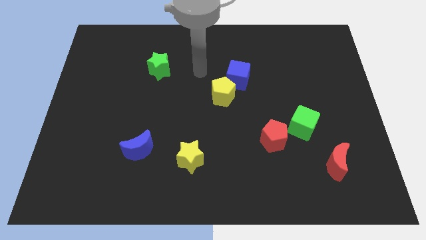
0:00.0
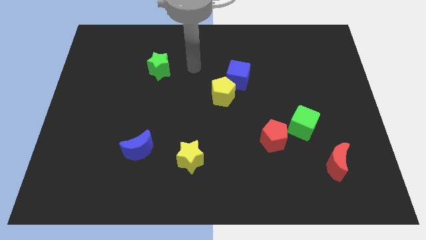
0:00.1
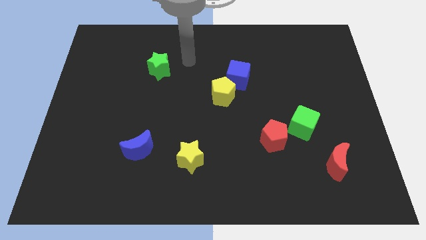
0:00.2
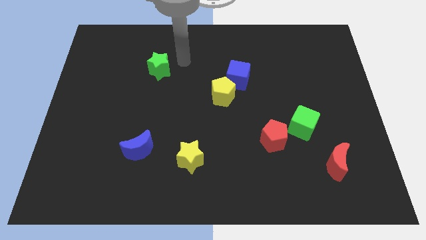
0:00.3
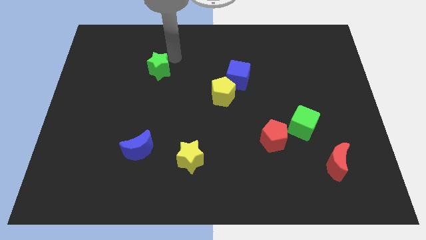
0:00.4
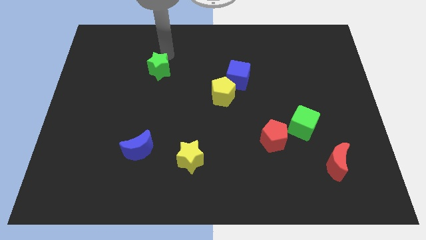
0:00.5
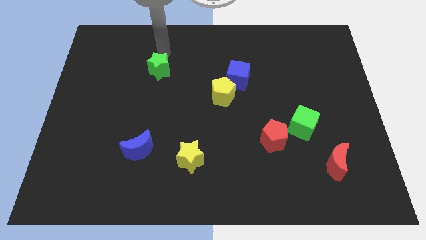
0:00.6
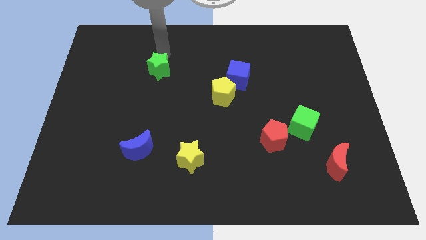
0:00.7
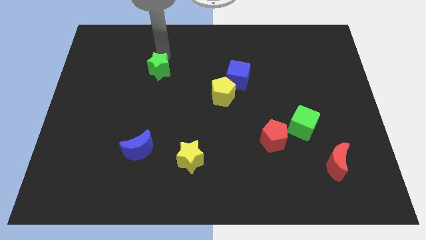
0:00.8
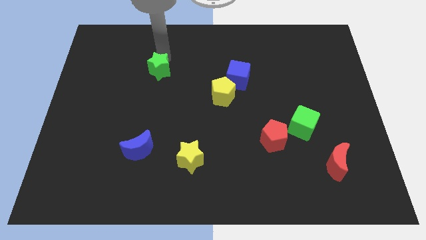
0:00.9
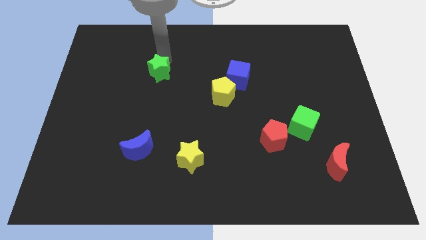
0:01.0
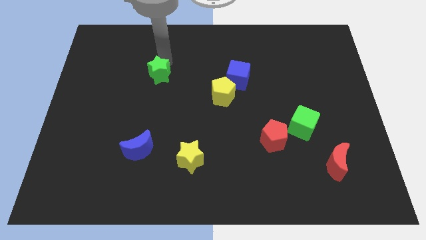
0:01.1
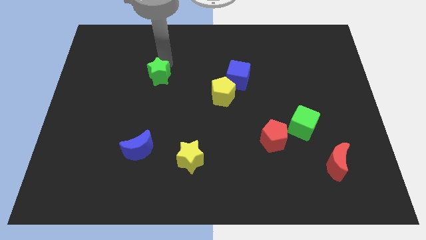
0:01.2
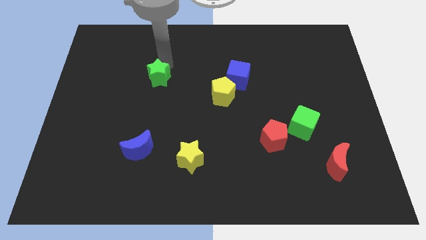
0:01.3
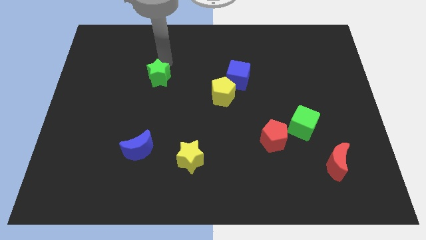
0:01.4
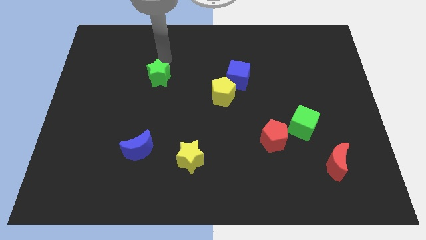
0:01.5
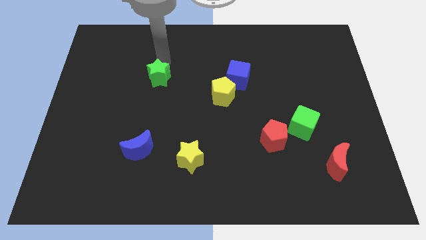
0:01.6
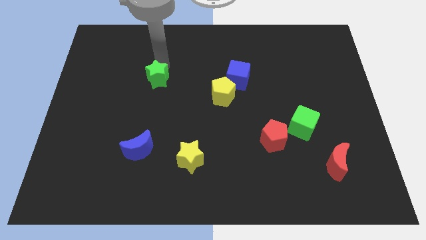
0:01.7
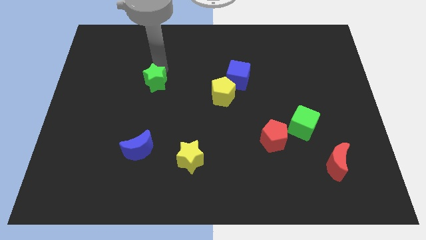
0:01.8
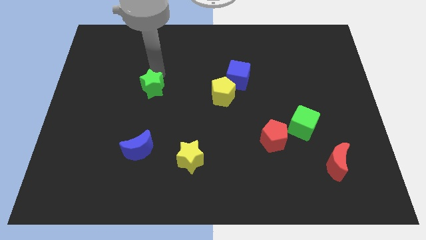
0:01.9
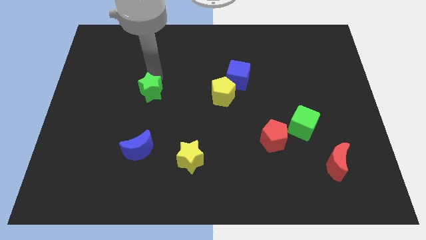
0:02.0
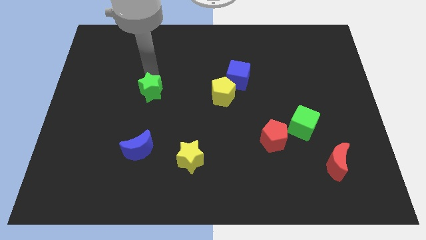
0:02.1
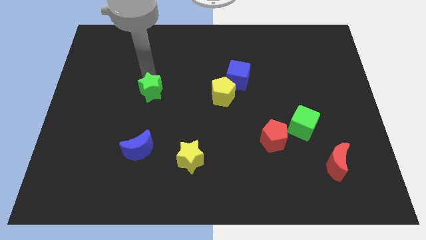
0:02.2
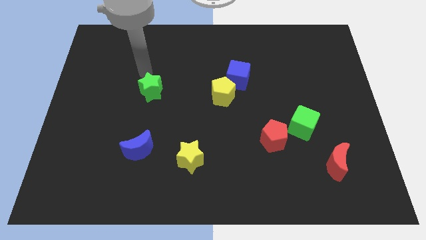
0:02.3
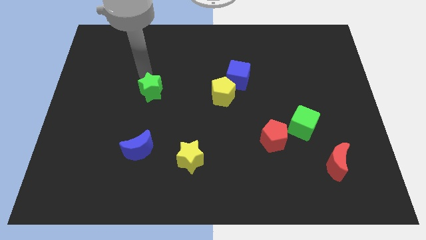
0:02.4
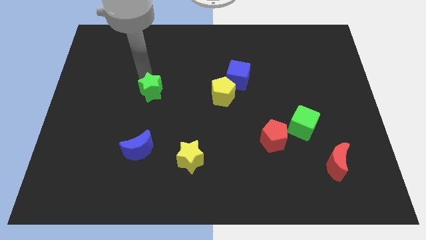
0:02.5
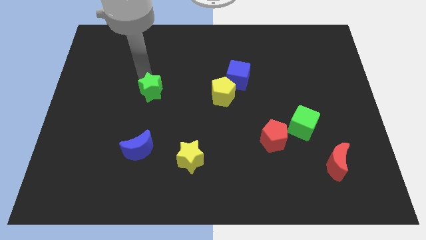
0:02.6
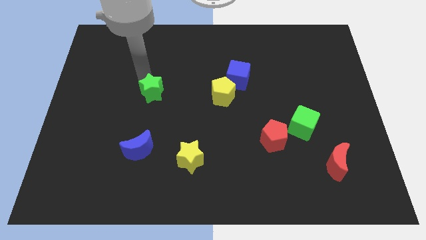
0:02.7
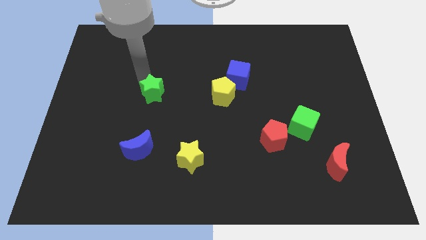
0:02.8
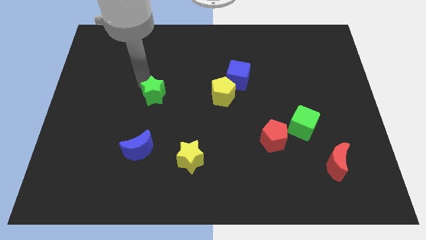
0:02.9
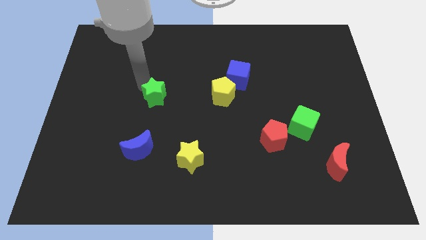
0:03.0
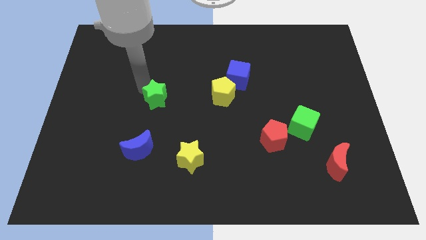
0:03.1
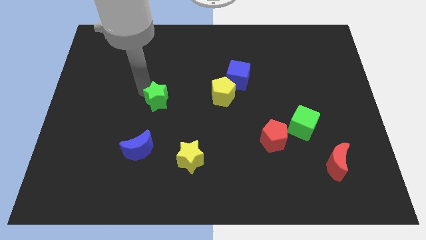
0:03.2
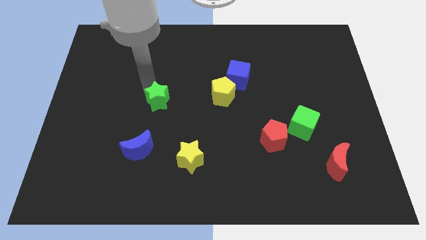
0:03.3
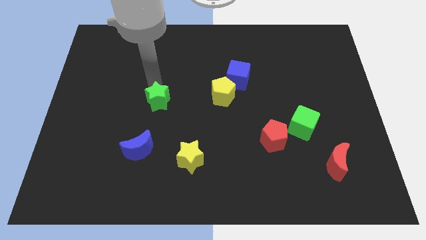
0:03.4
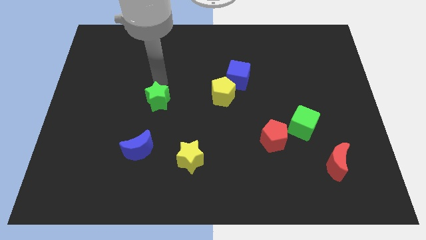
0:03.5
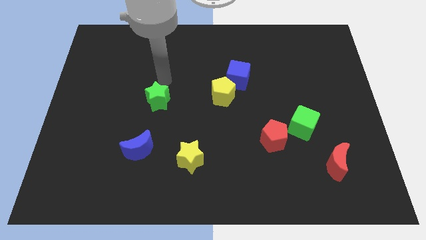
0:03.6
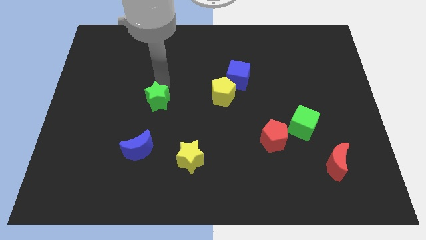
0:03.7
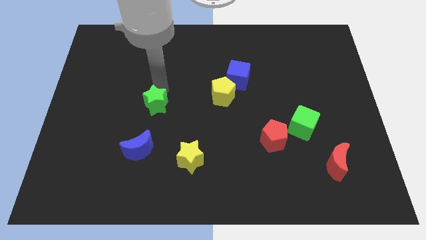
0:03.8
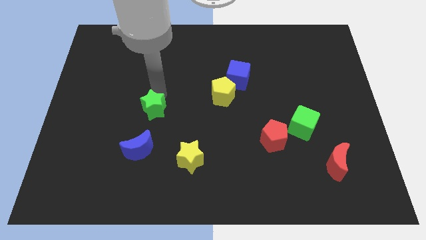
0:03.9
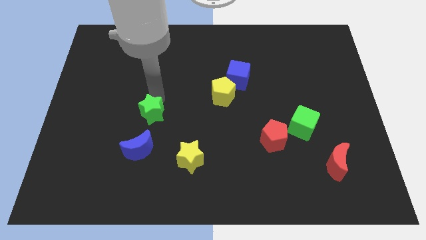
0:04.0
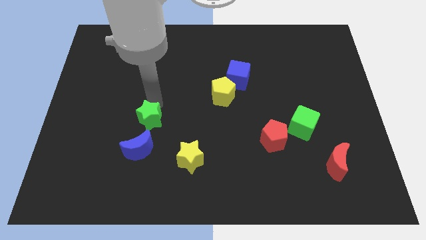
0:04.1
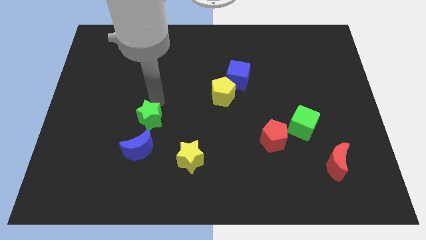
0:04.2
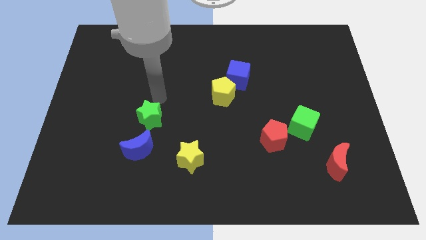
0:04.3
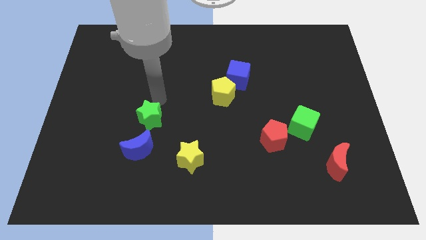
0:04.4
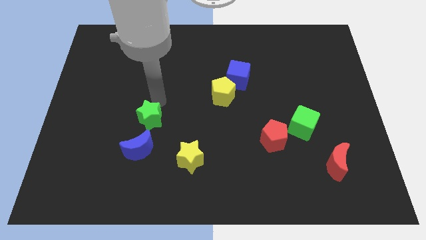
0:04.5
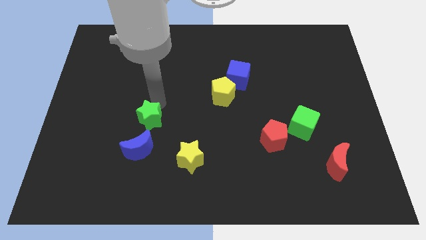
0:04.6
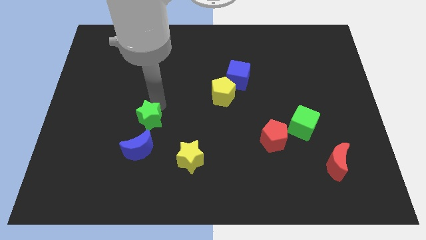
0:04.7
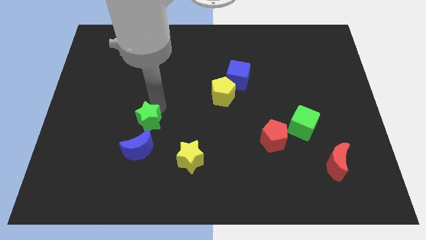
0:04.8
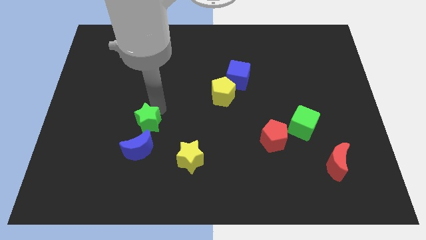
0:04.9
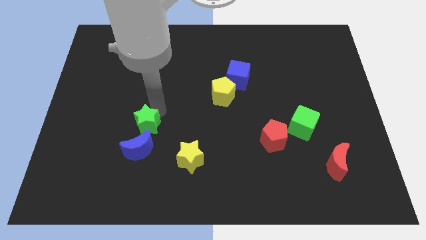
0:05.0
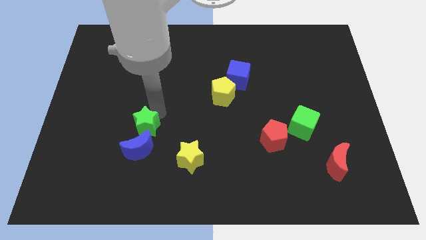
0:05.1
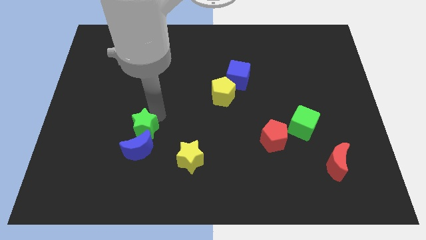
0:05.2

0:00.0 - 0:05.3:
slide the green star towards the blue moon

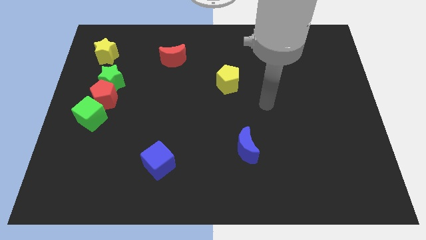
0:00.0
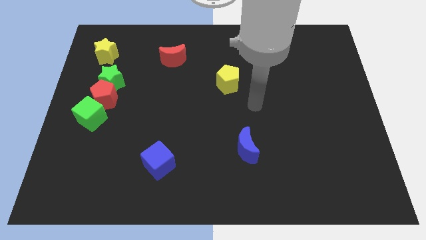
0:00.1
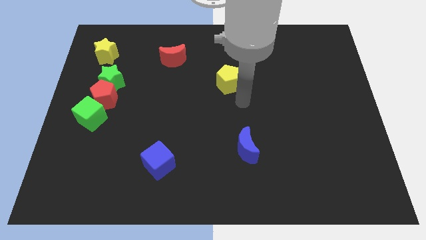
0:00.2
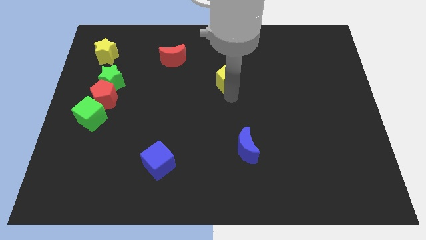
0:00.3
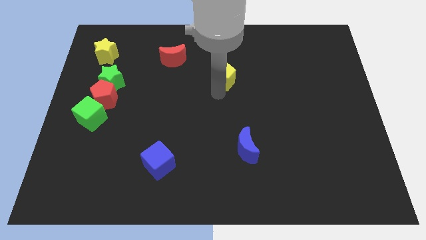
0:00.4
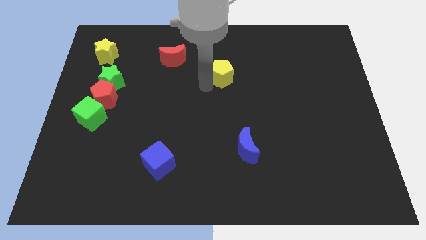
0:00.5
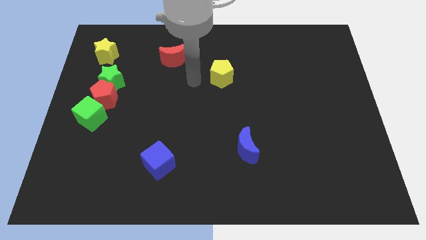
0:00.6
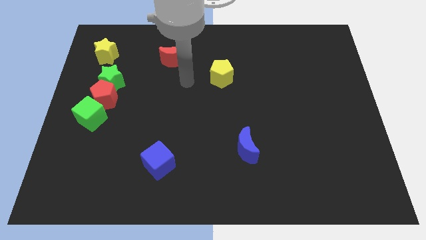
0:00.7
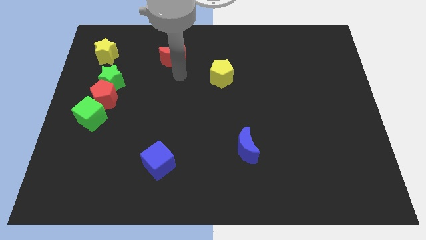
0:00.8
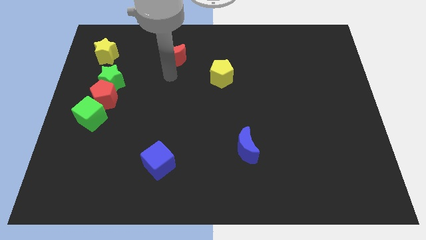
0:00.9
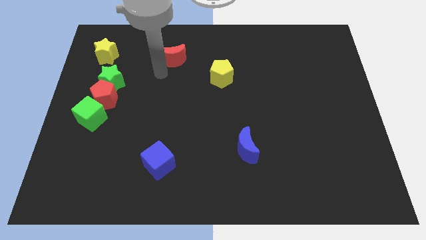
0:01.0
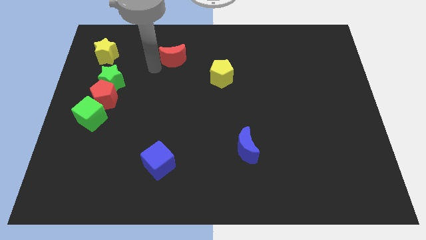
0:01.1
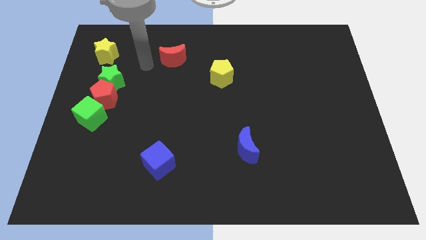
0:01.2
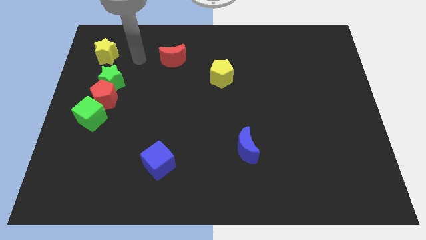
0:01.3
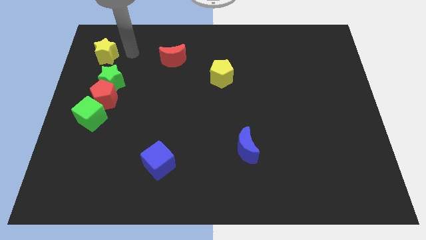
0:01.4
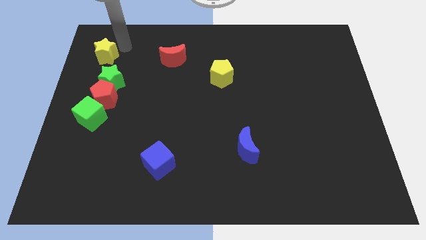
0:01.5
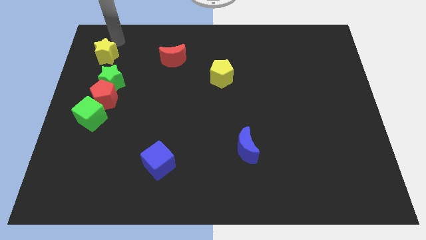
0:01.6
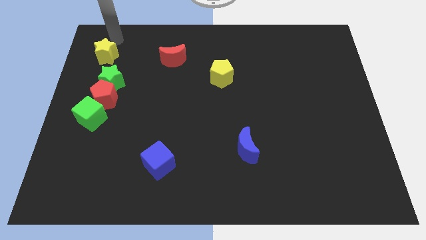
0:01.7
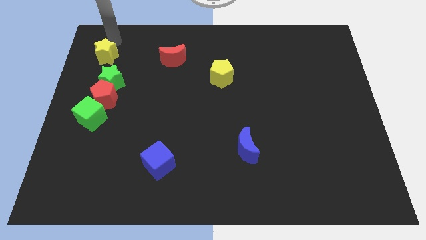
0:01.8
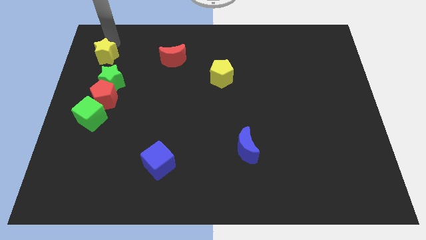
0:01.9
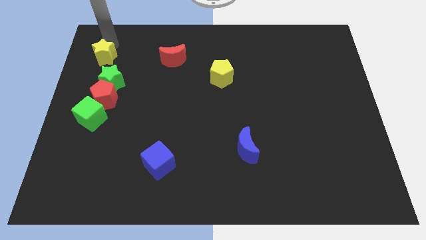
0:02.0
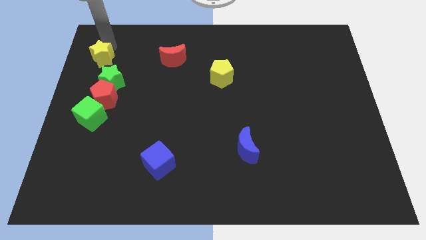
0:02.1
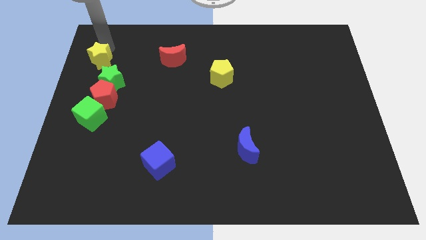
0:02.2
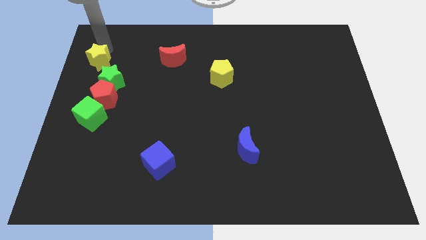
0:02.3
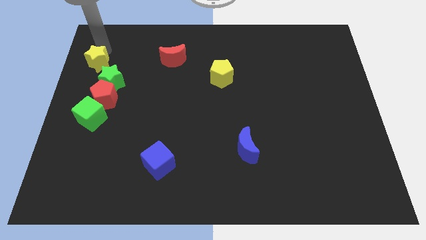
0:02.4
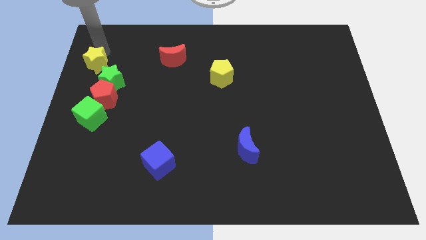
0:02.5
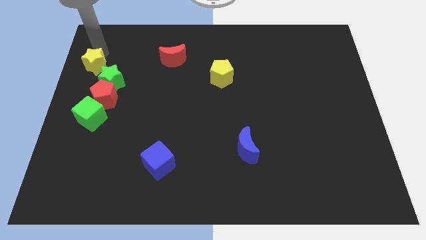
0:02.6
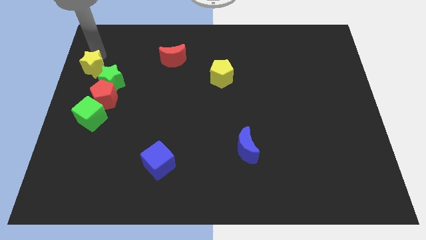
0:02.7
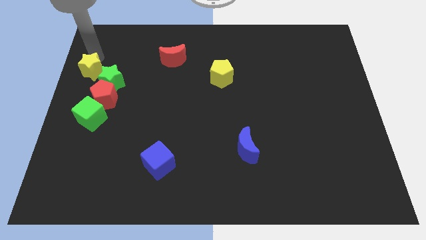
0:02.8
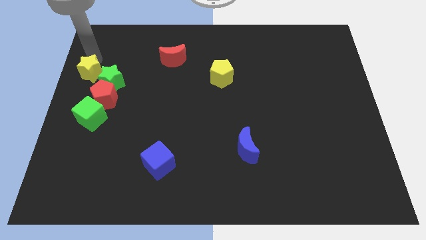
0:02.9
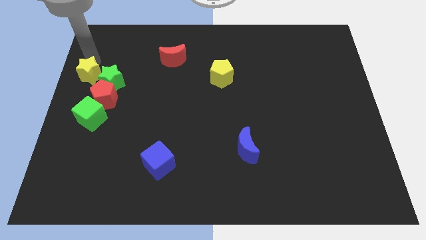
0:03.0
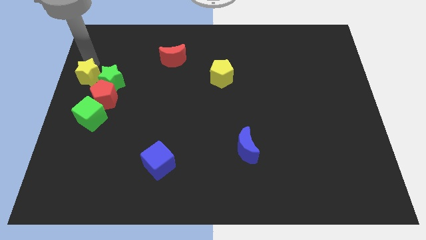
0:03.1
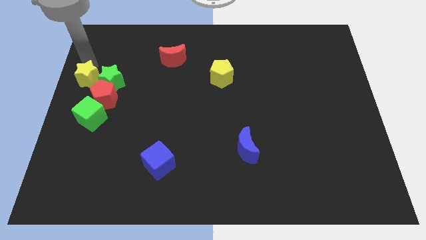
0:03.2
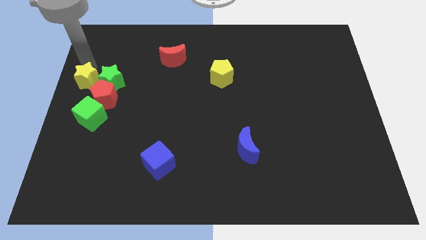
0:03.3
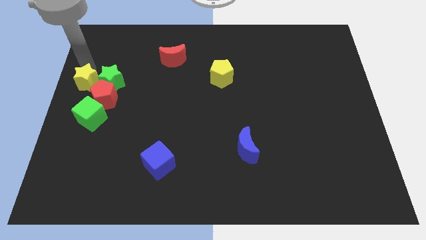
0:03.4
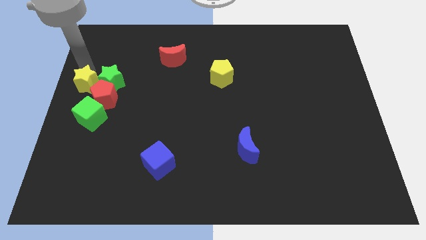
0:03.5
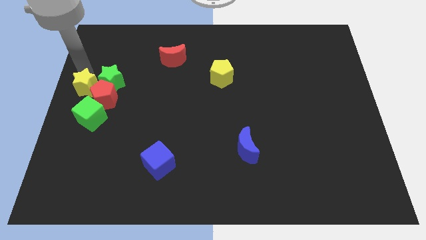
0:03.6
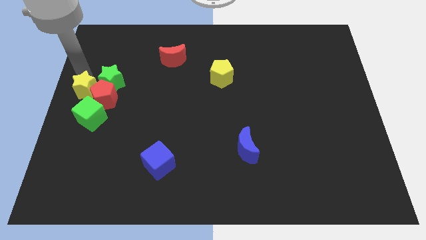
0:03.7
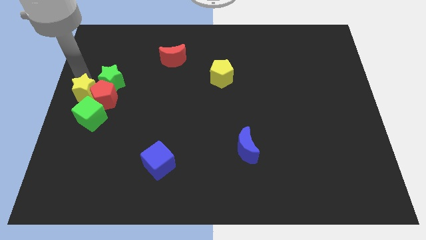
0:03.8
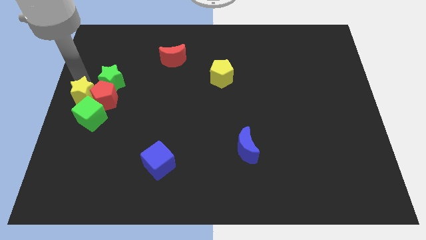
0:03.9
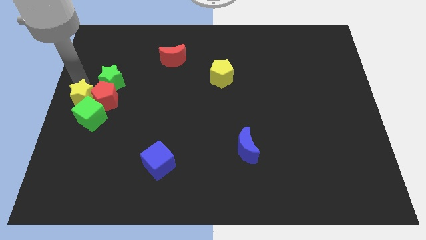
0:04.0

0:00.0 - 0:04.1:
put the yellow star close to the green cube
